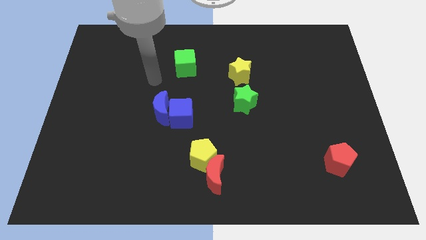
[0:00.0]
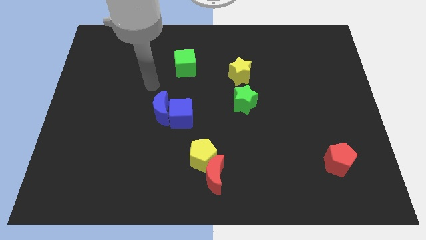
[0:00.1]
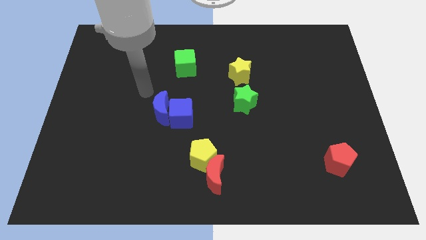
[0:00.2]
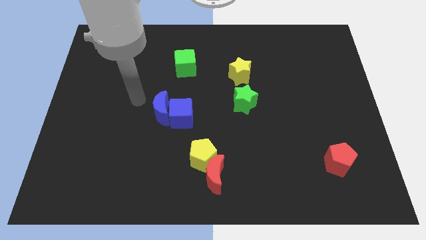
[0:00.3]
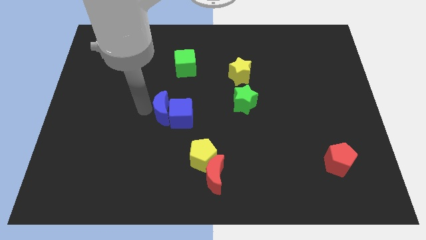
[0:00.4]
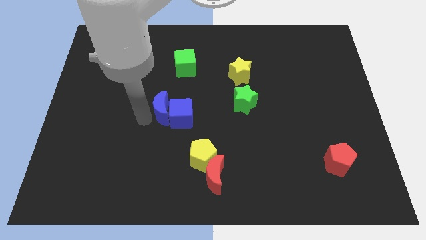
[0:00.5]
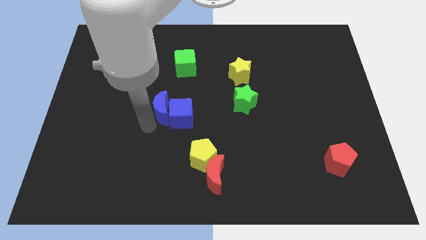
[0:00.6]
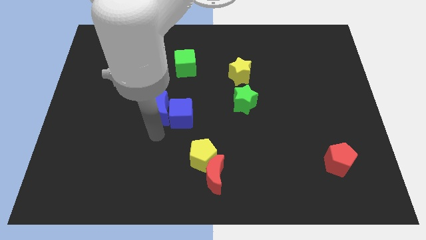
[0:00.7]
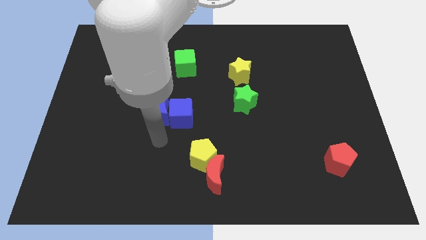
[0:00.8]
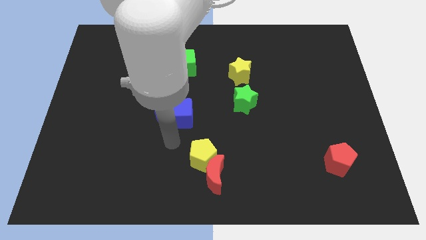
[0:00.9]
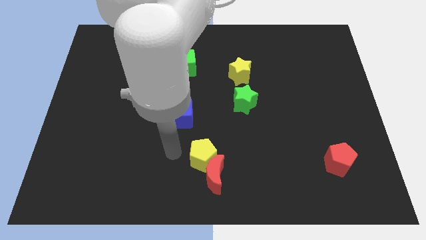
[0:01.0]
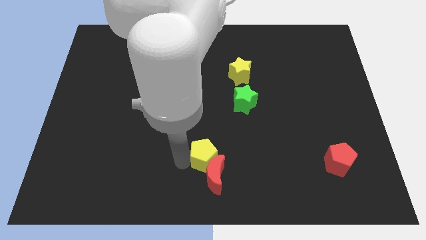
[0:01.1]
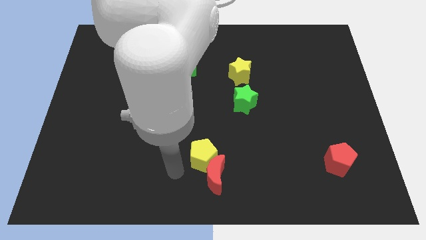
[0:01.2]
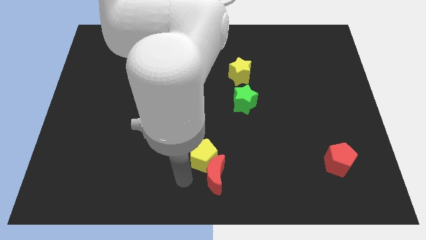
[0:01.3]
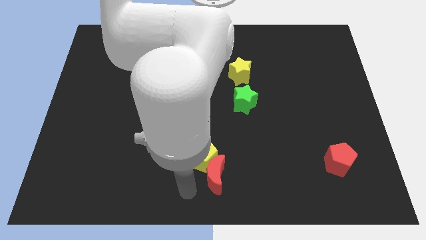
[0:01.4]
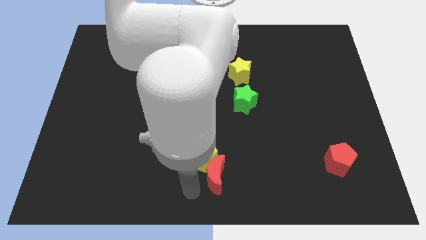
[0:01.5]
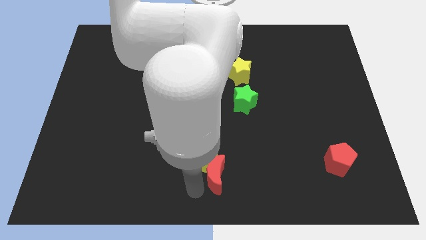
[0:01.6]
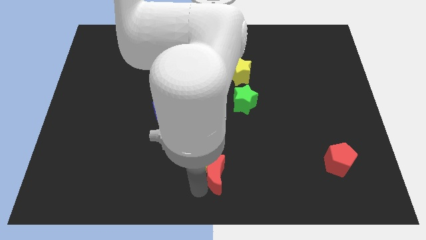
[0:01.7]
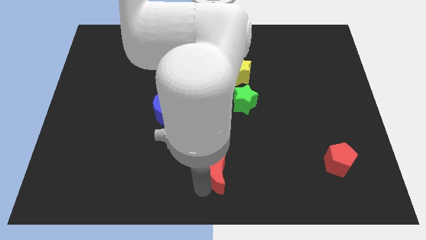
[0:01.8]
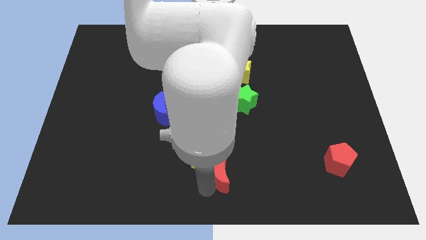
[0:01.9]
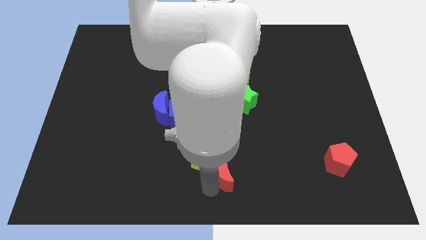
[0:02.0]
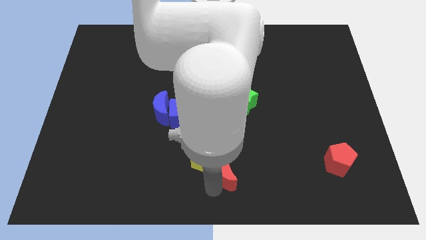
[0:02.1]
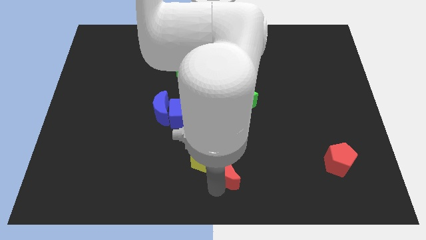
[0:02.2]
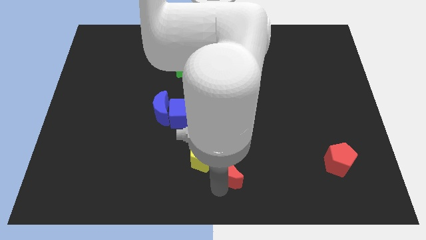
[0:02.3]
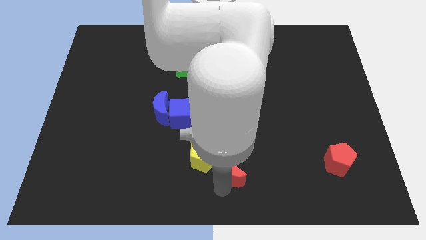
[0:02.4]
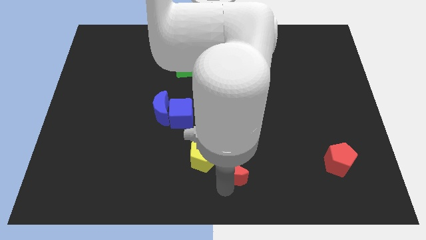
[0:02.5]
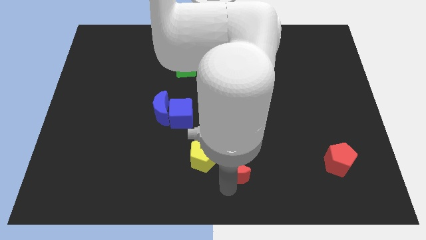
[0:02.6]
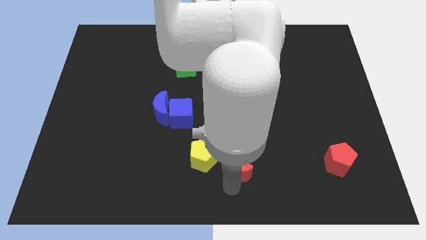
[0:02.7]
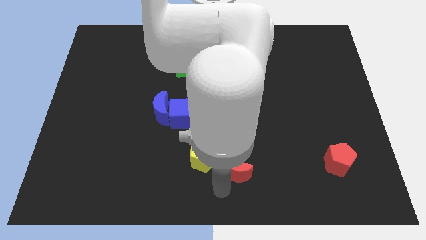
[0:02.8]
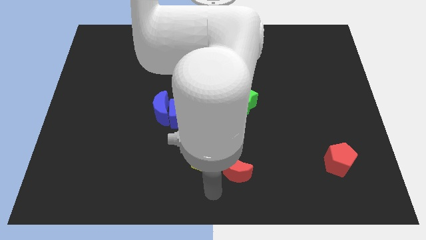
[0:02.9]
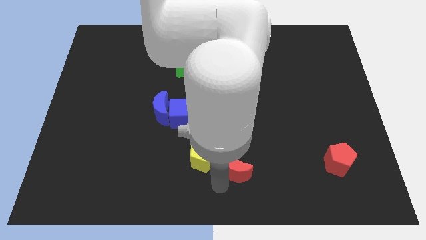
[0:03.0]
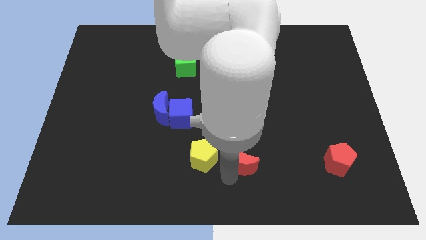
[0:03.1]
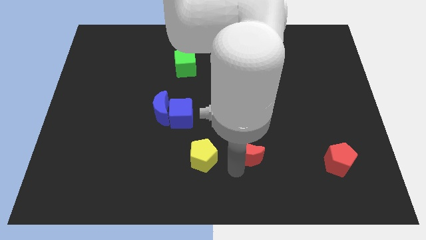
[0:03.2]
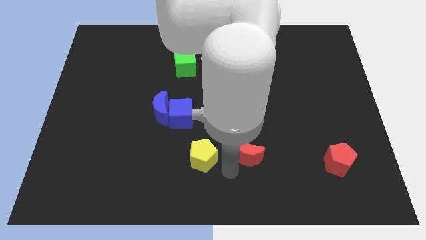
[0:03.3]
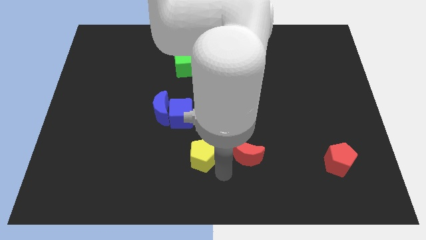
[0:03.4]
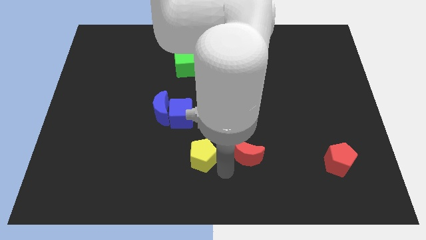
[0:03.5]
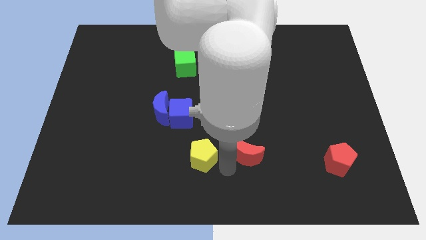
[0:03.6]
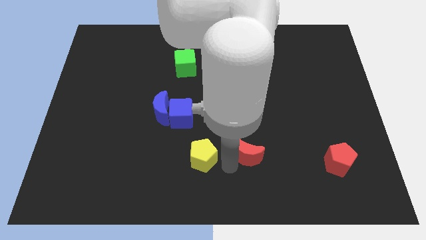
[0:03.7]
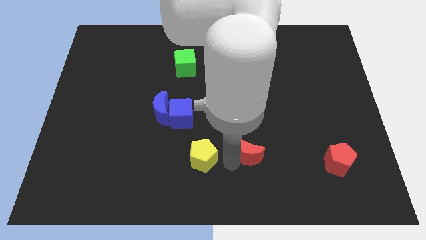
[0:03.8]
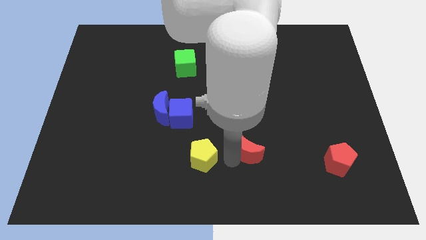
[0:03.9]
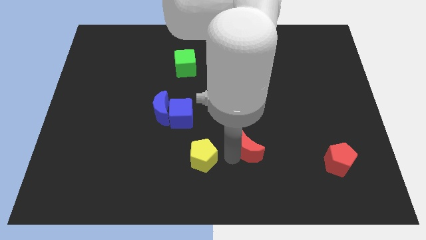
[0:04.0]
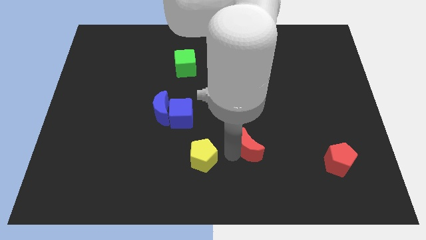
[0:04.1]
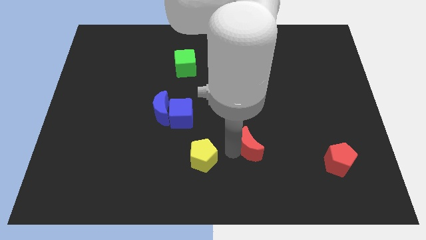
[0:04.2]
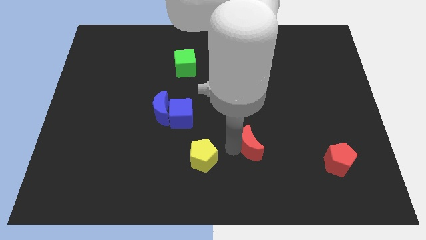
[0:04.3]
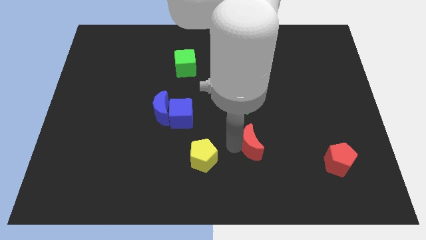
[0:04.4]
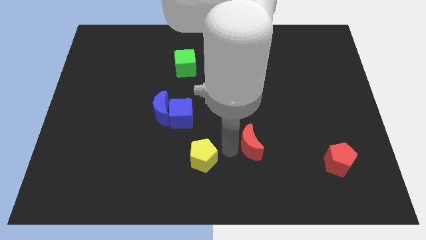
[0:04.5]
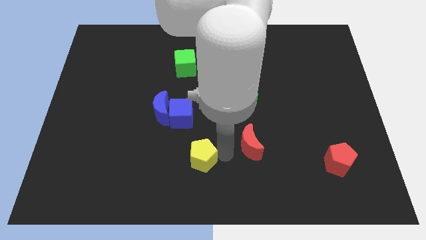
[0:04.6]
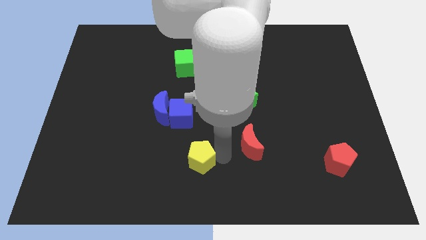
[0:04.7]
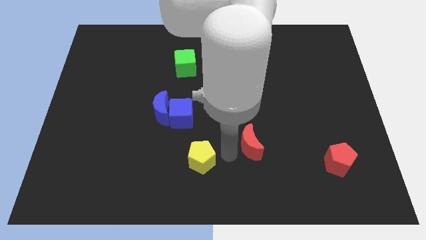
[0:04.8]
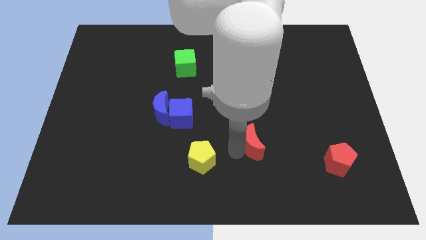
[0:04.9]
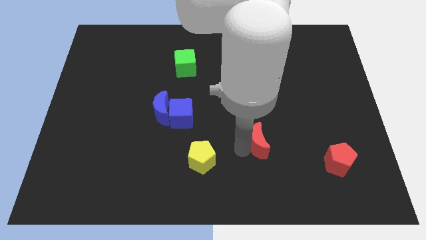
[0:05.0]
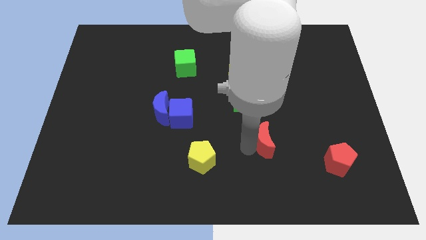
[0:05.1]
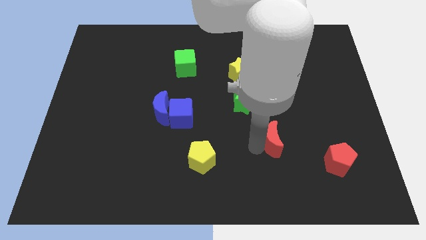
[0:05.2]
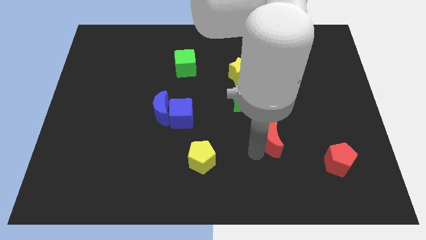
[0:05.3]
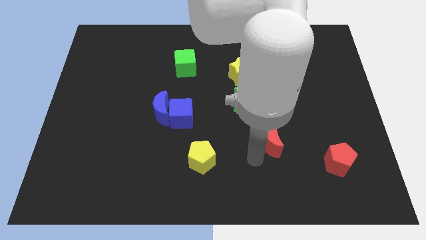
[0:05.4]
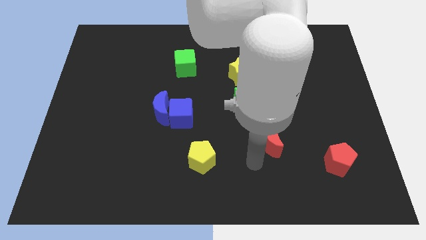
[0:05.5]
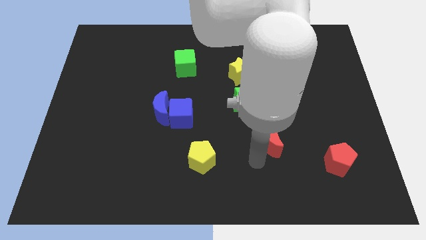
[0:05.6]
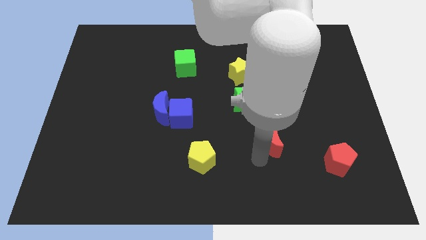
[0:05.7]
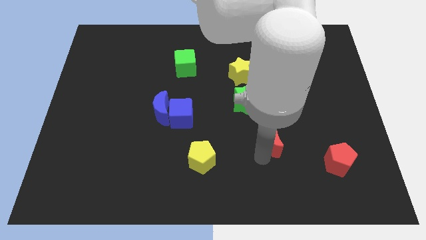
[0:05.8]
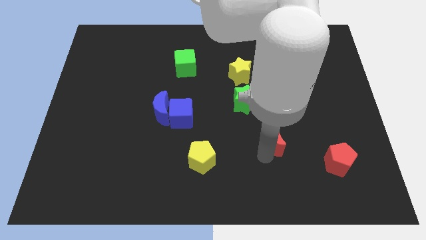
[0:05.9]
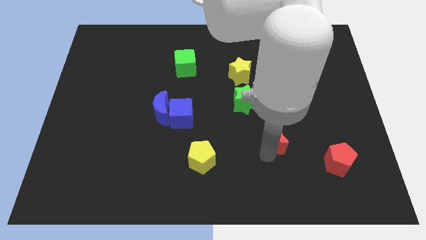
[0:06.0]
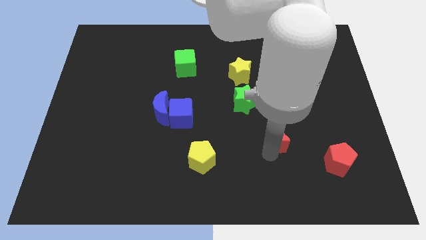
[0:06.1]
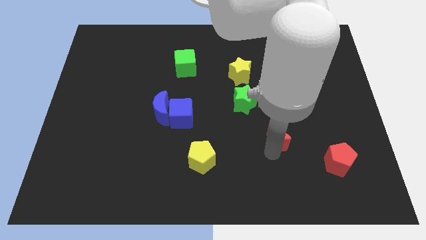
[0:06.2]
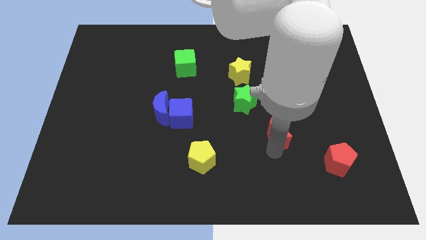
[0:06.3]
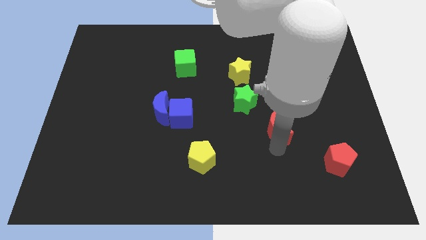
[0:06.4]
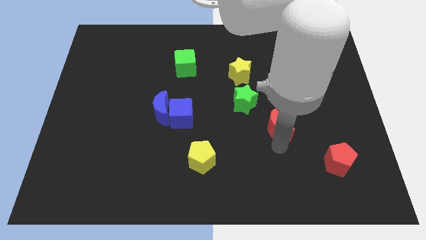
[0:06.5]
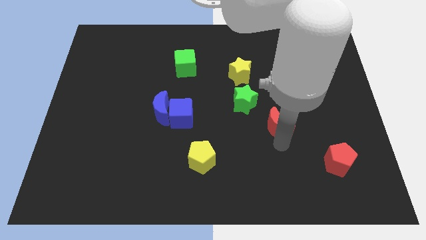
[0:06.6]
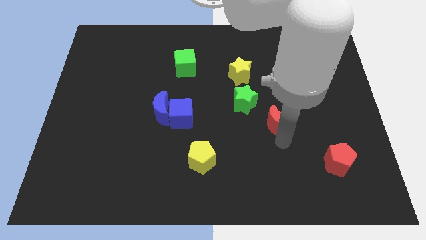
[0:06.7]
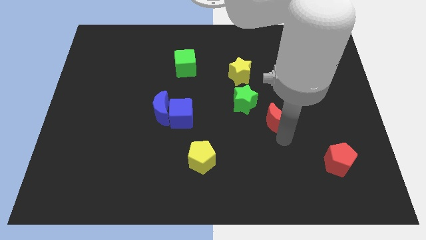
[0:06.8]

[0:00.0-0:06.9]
move the red moon up and then to the right

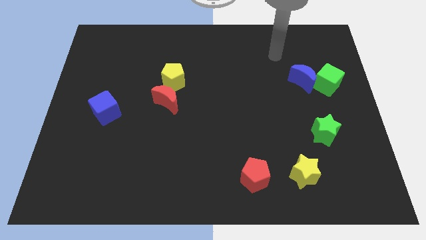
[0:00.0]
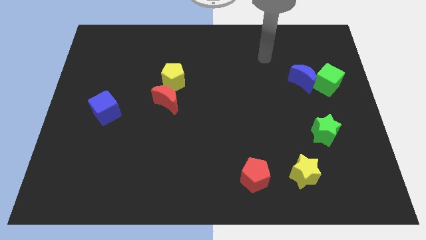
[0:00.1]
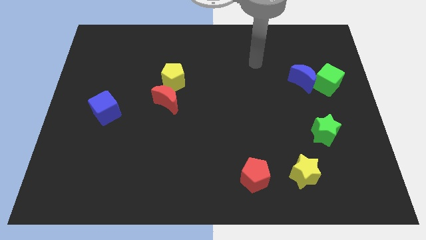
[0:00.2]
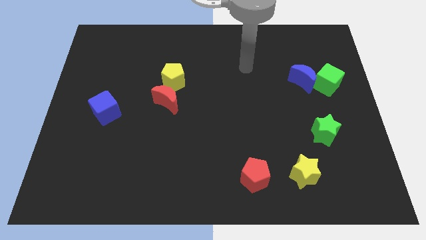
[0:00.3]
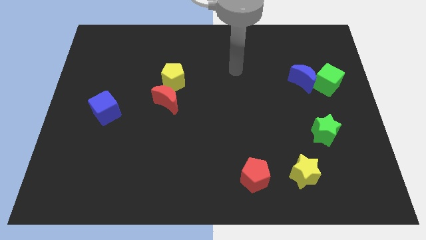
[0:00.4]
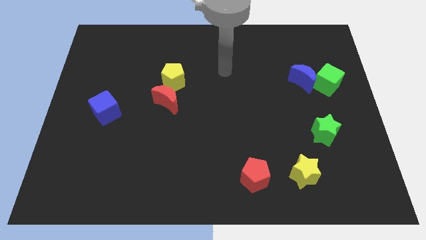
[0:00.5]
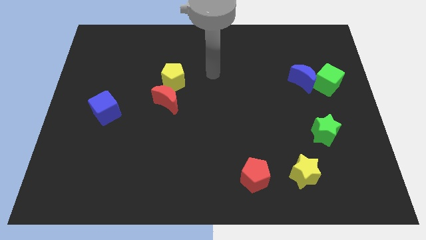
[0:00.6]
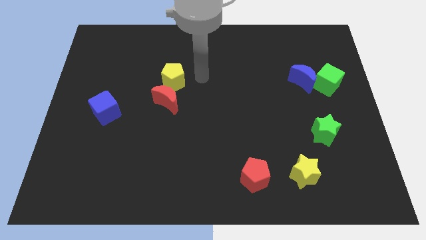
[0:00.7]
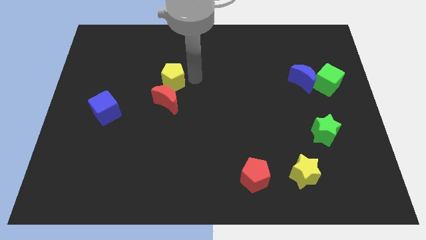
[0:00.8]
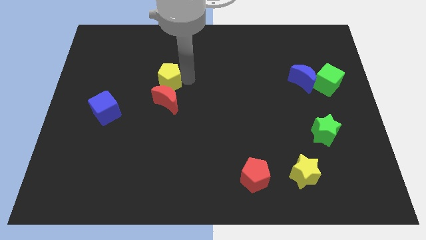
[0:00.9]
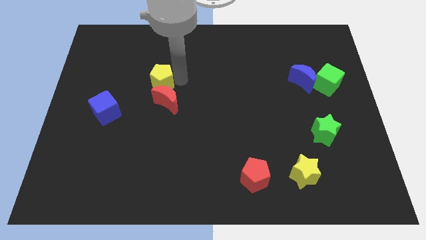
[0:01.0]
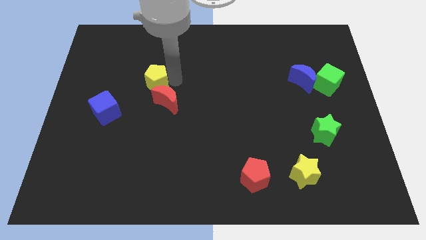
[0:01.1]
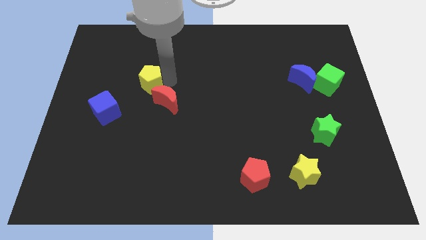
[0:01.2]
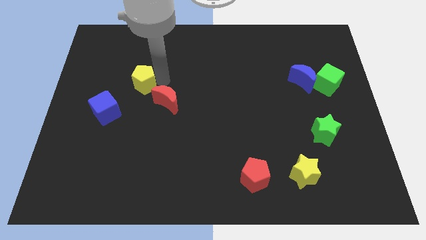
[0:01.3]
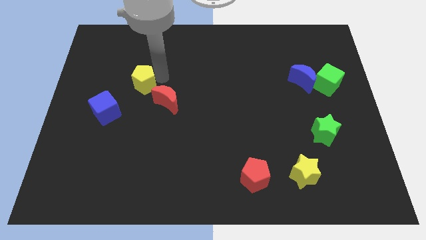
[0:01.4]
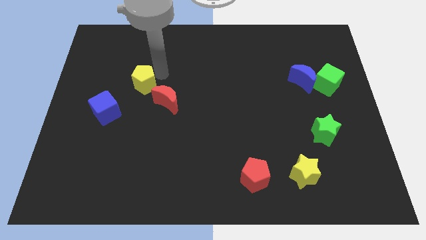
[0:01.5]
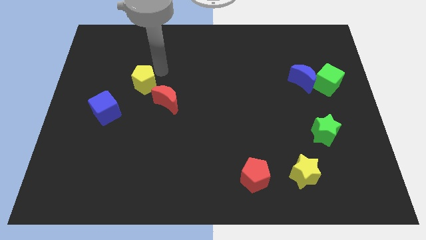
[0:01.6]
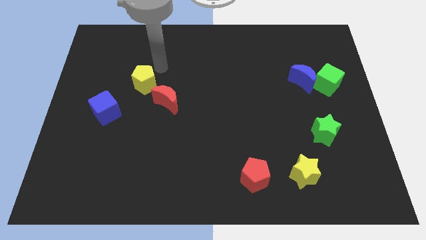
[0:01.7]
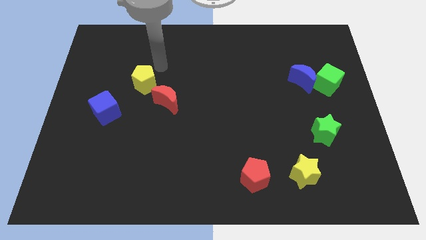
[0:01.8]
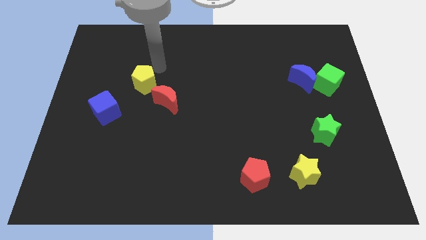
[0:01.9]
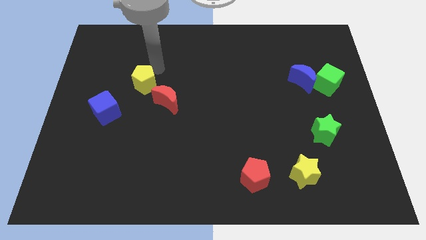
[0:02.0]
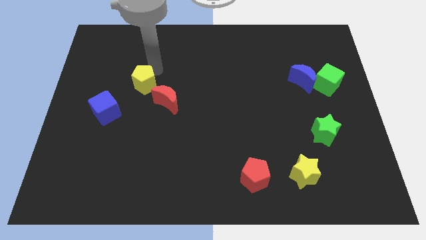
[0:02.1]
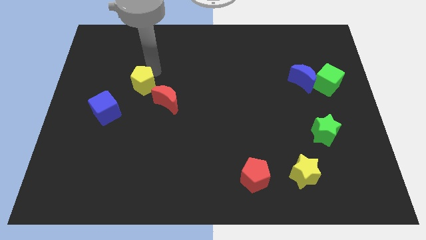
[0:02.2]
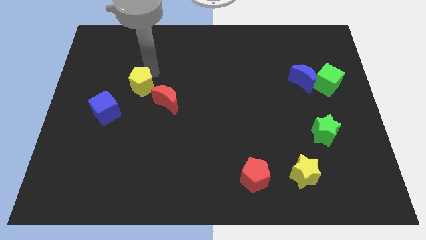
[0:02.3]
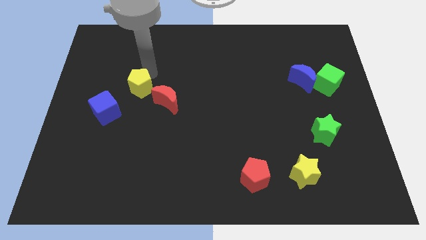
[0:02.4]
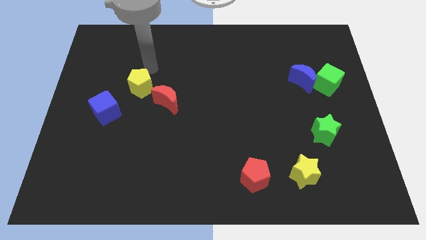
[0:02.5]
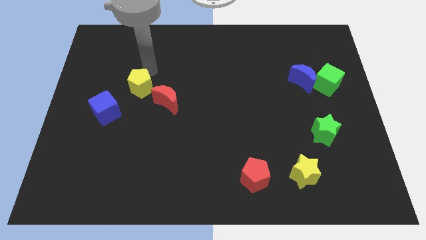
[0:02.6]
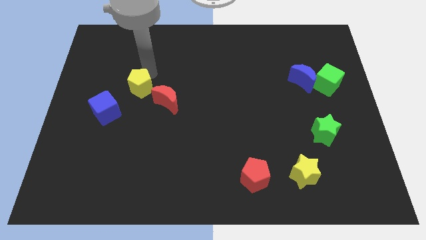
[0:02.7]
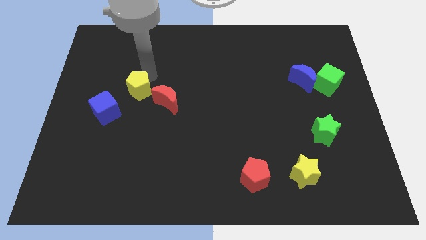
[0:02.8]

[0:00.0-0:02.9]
slightly move the yellow pentagon diagonally downwards and left
